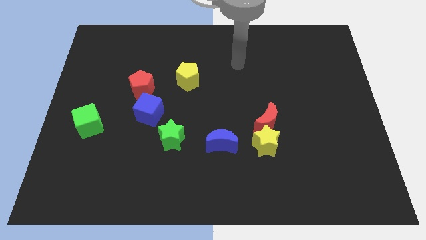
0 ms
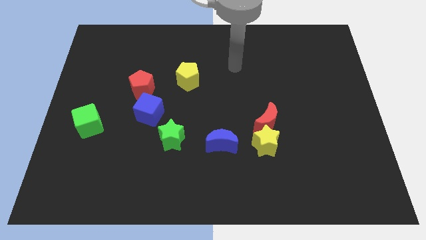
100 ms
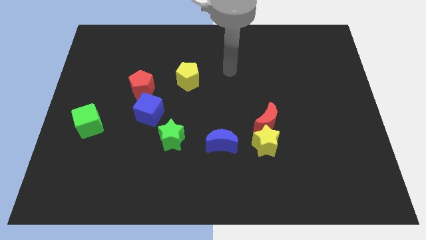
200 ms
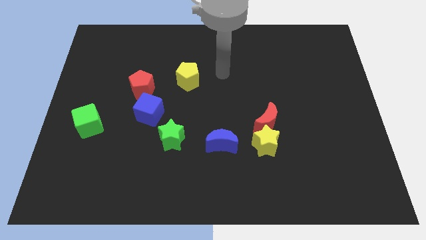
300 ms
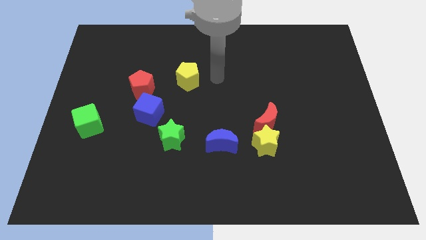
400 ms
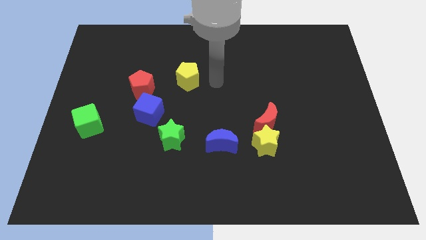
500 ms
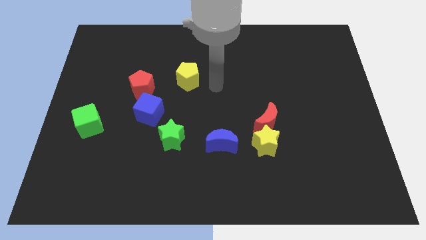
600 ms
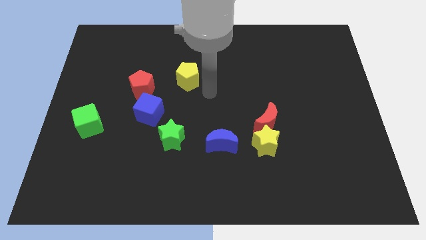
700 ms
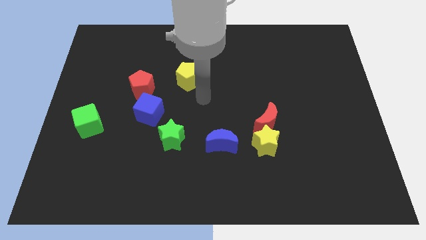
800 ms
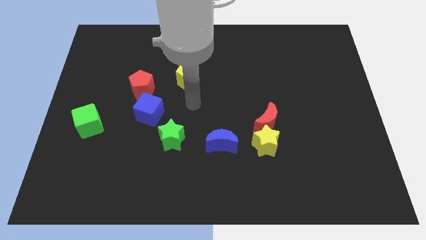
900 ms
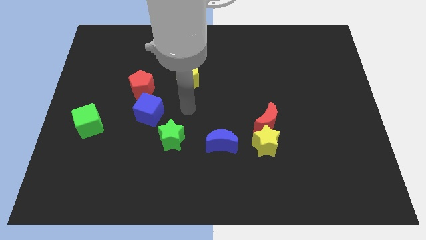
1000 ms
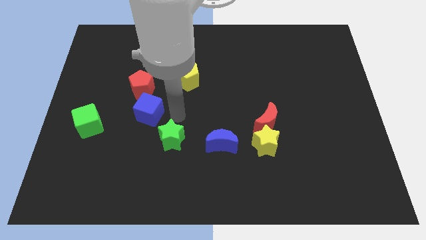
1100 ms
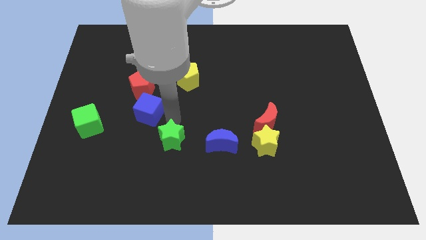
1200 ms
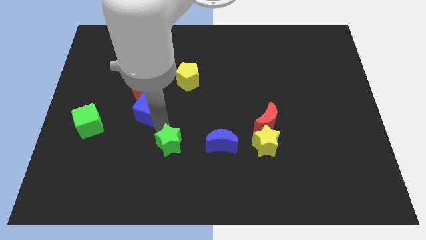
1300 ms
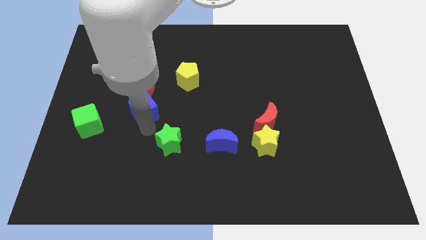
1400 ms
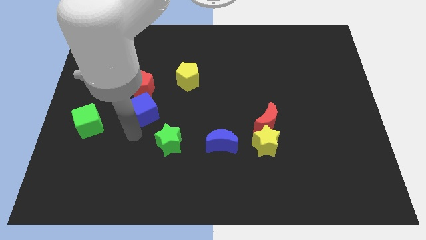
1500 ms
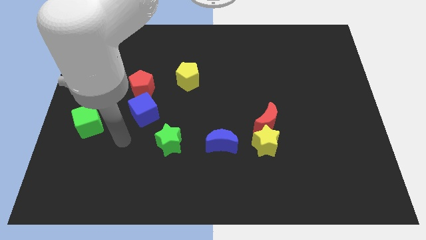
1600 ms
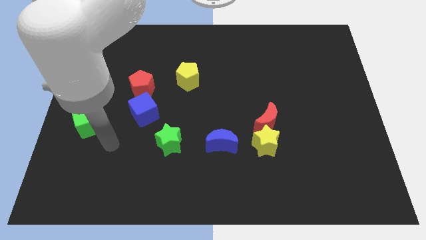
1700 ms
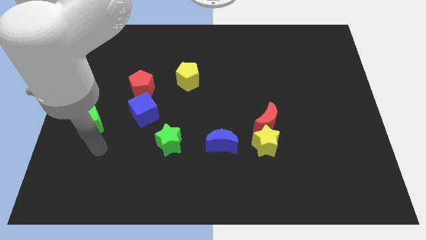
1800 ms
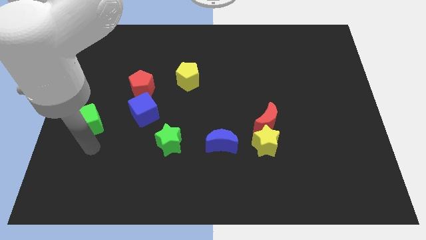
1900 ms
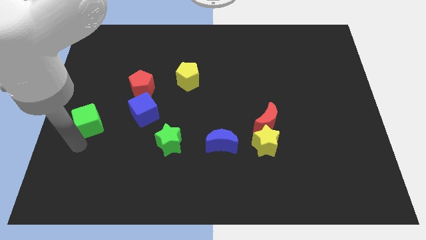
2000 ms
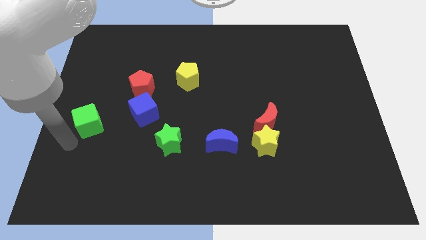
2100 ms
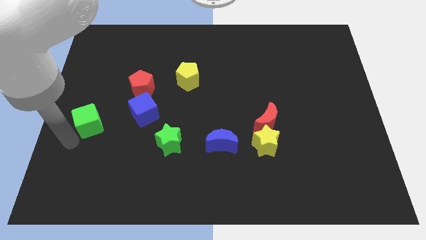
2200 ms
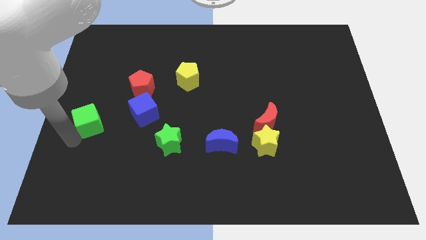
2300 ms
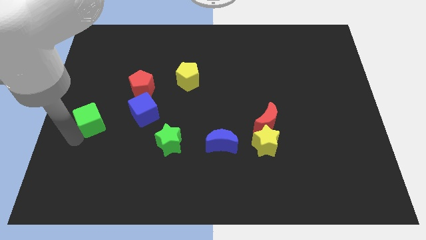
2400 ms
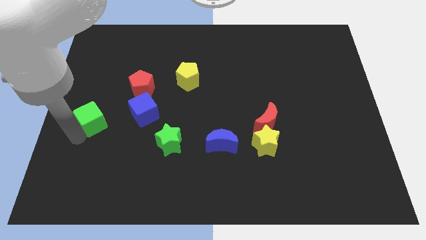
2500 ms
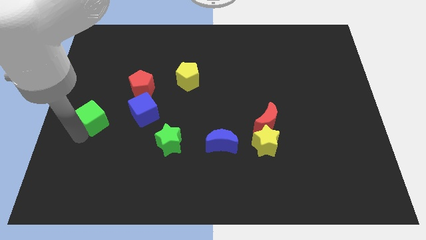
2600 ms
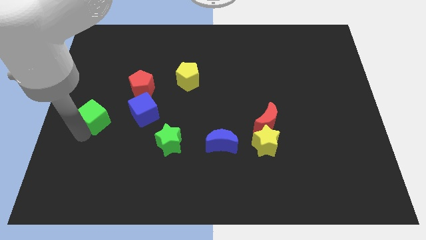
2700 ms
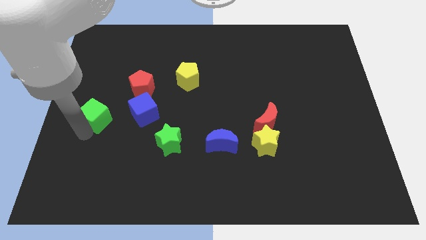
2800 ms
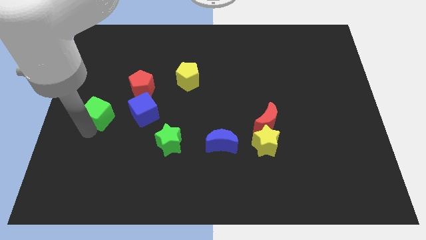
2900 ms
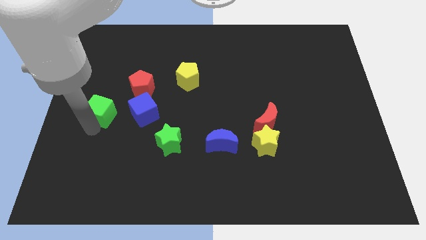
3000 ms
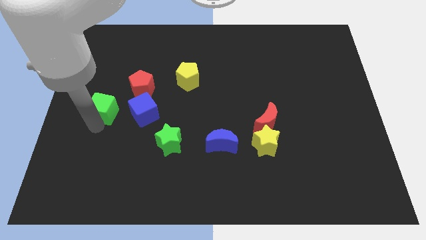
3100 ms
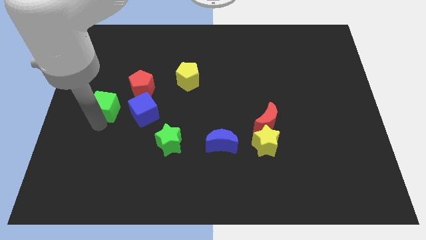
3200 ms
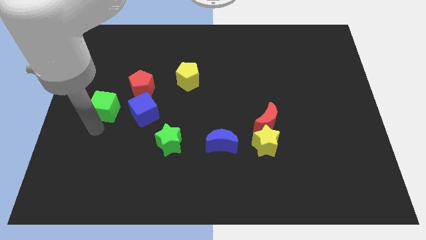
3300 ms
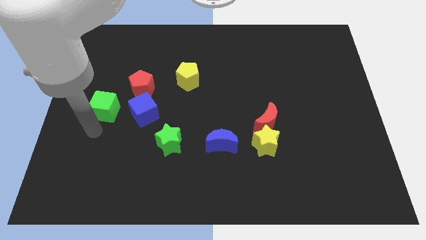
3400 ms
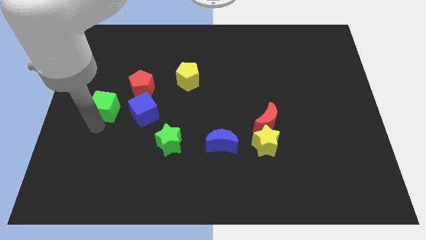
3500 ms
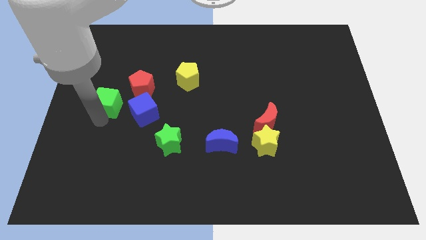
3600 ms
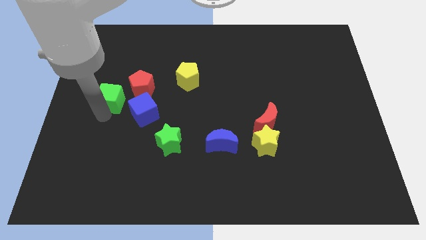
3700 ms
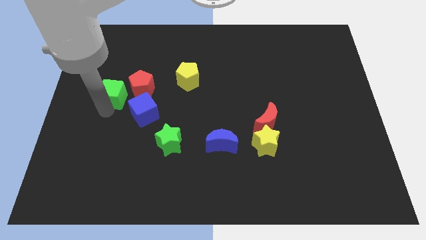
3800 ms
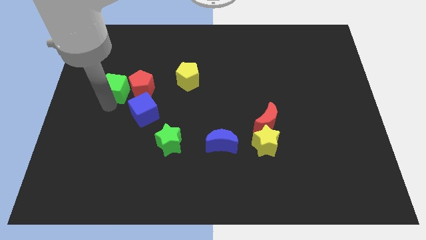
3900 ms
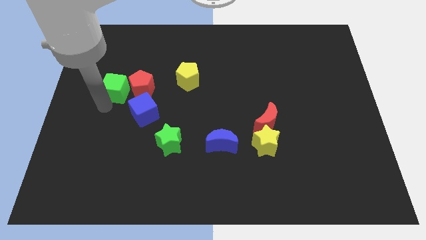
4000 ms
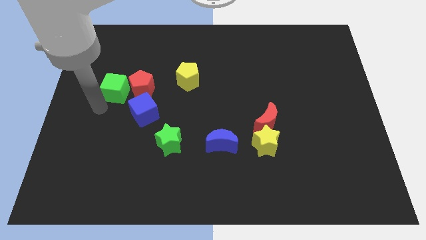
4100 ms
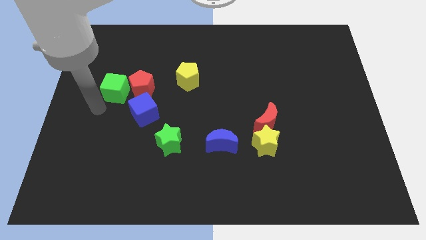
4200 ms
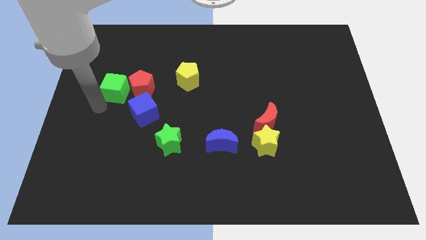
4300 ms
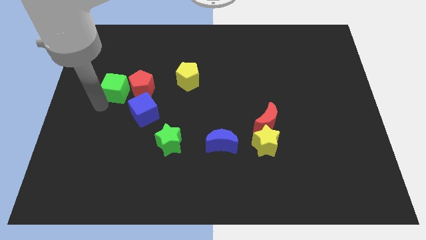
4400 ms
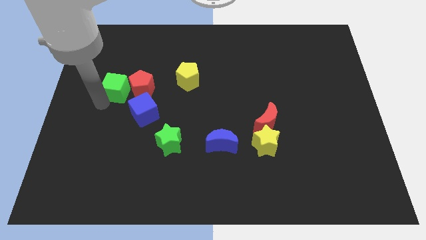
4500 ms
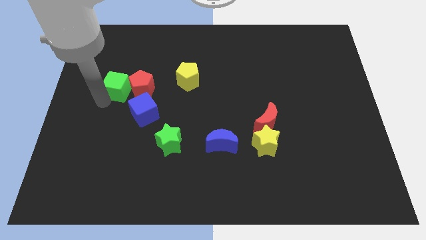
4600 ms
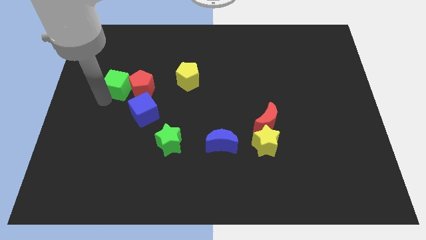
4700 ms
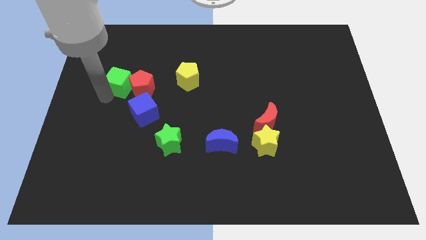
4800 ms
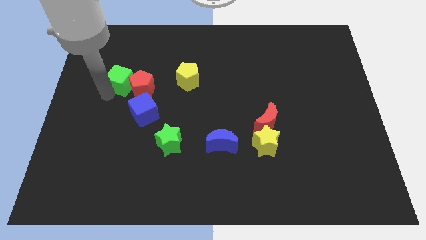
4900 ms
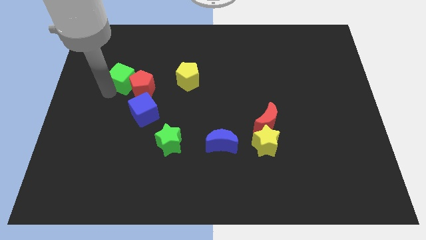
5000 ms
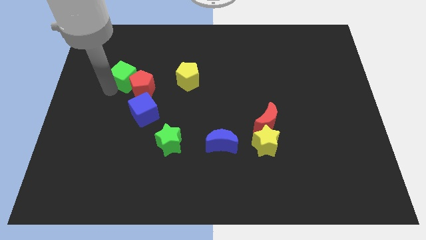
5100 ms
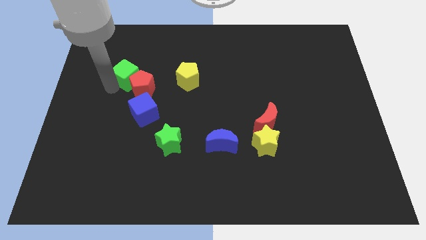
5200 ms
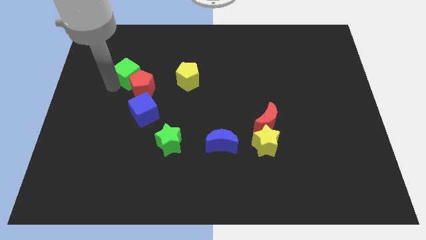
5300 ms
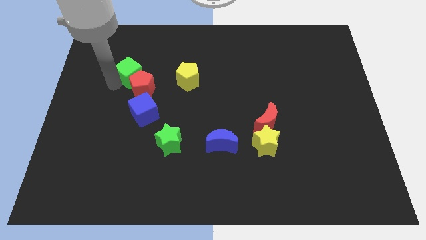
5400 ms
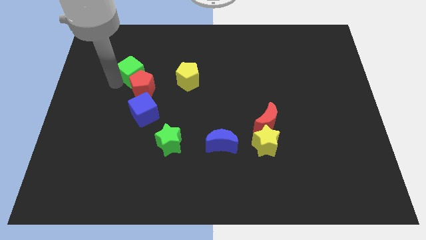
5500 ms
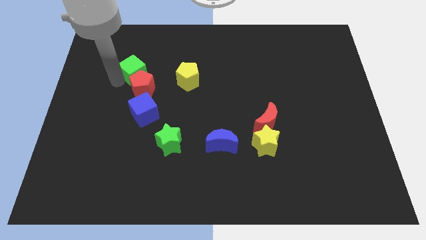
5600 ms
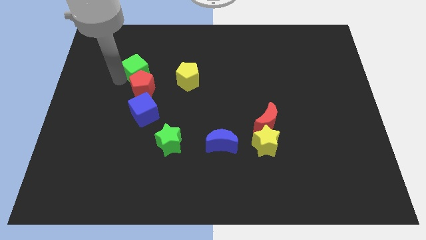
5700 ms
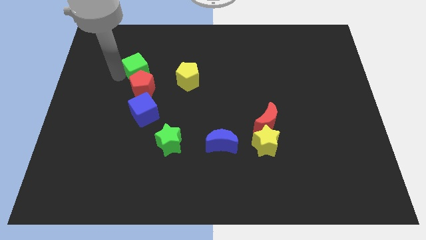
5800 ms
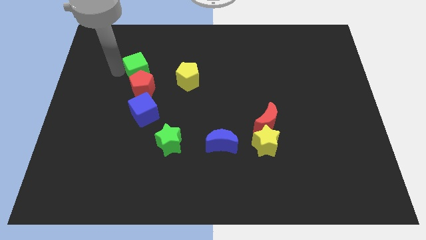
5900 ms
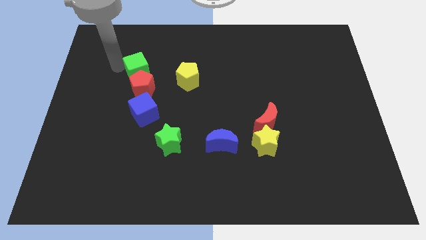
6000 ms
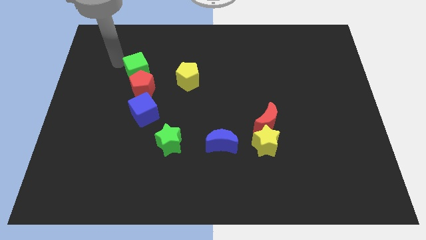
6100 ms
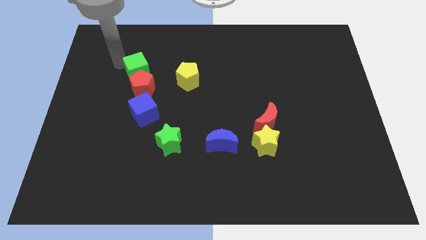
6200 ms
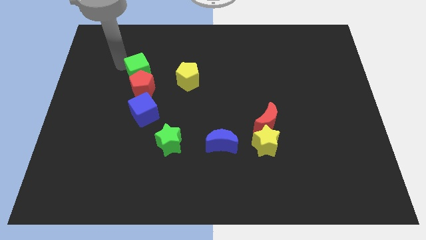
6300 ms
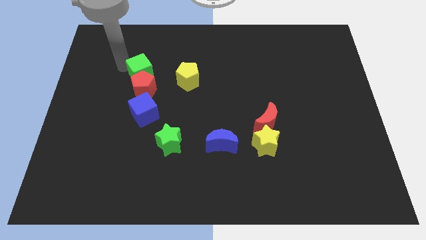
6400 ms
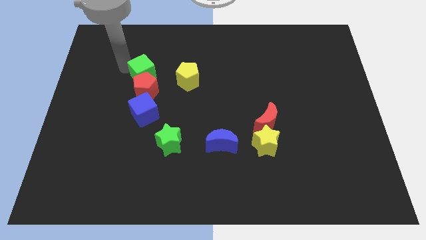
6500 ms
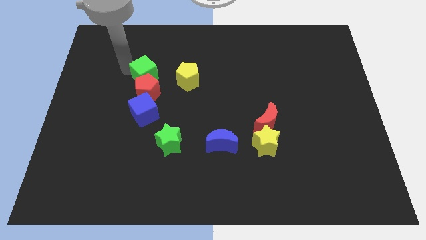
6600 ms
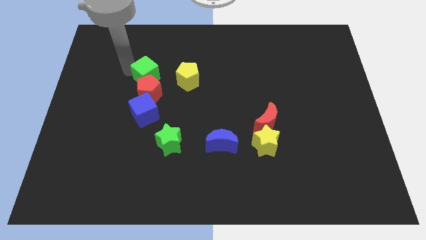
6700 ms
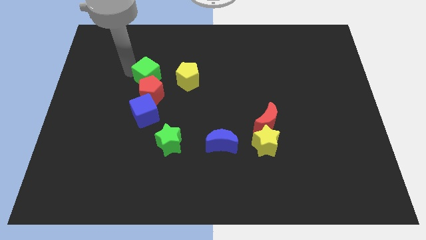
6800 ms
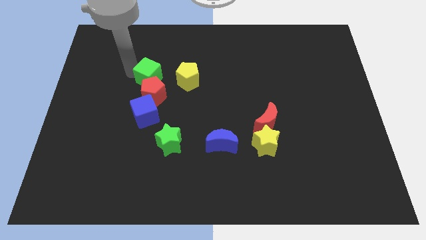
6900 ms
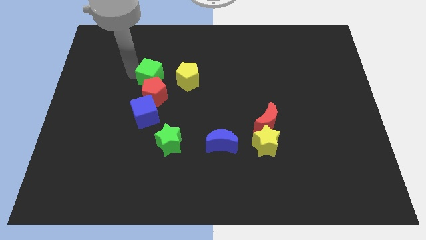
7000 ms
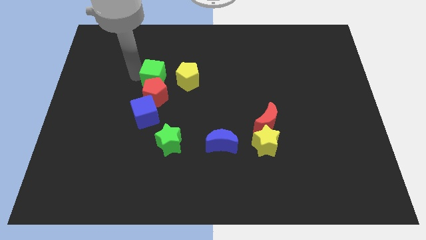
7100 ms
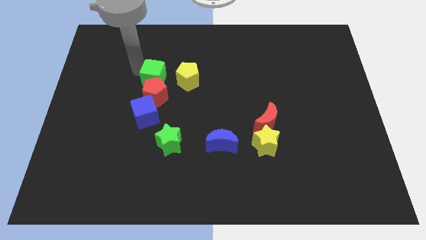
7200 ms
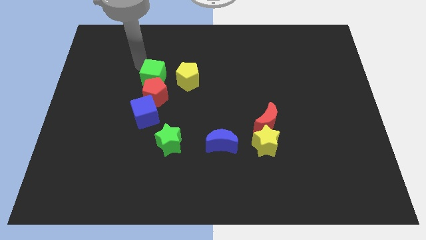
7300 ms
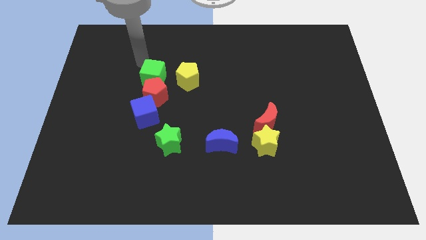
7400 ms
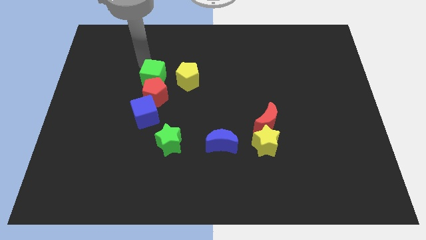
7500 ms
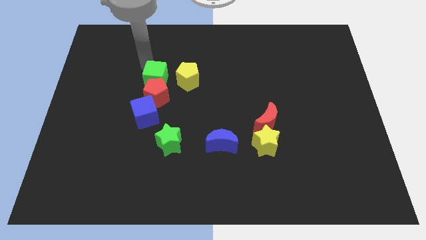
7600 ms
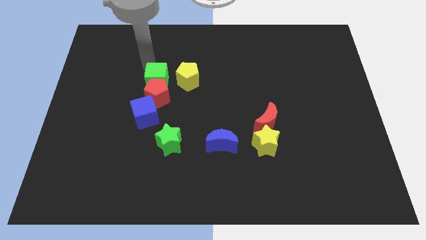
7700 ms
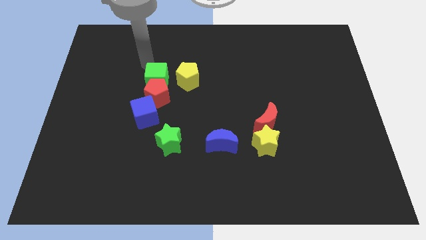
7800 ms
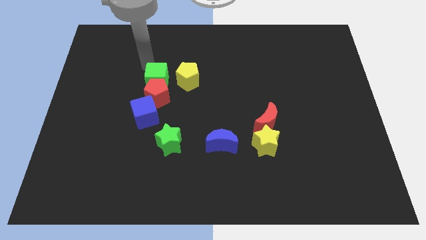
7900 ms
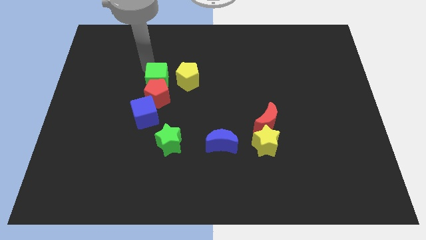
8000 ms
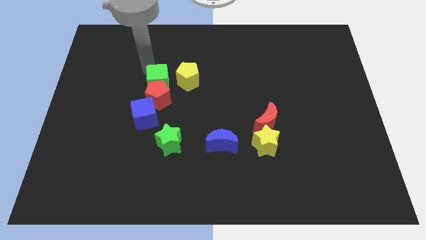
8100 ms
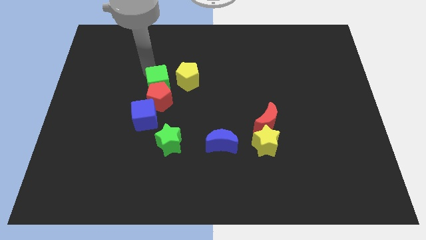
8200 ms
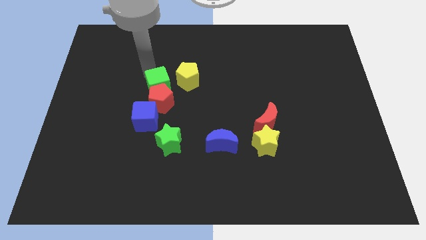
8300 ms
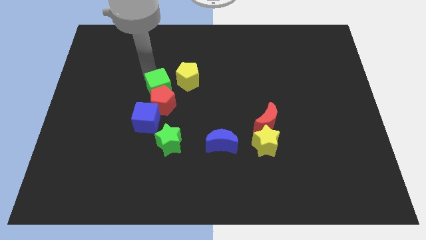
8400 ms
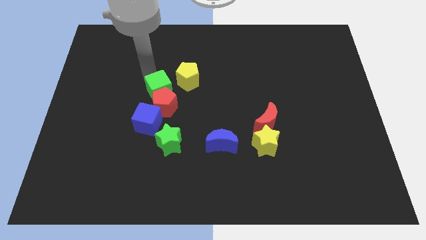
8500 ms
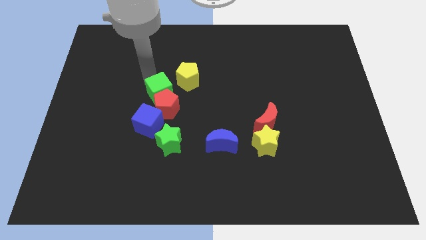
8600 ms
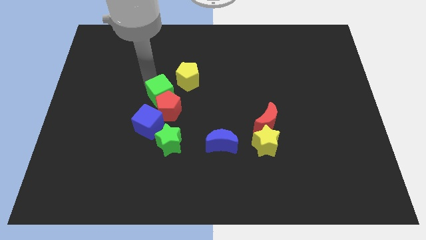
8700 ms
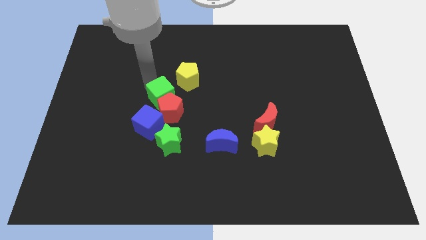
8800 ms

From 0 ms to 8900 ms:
slide the green cube to the top right of the blue cube
